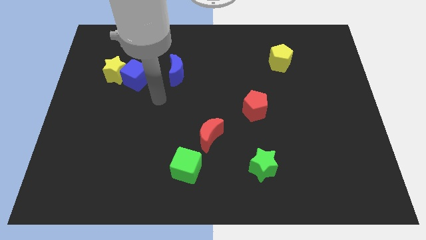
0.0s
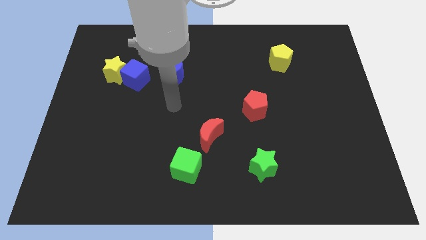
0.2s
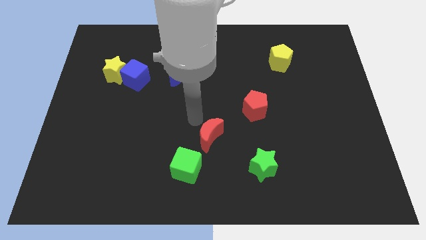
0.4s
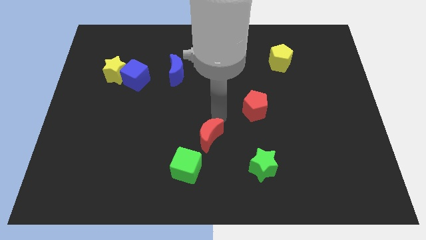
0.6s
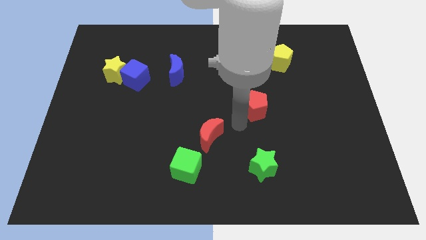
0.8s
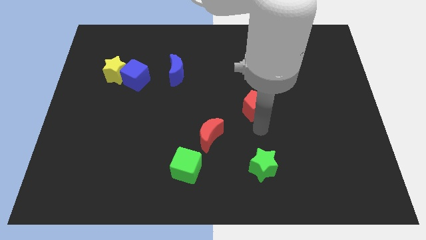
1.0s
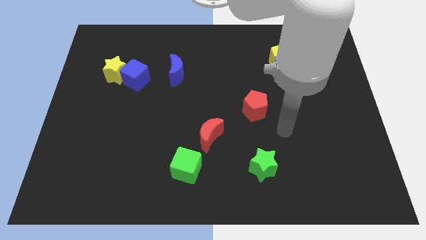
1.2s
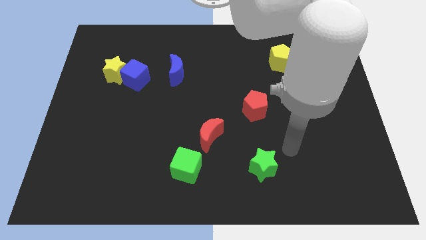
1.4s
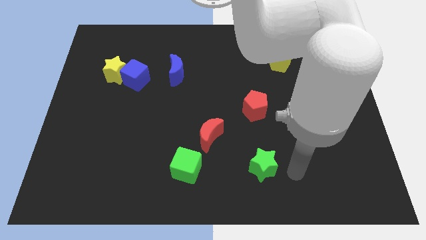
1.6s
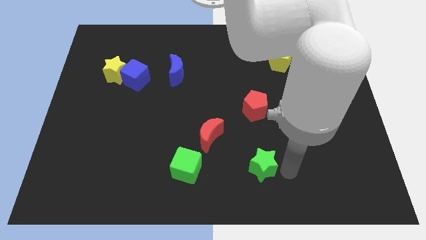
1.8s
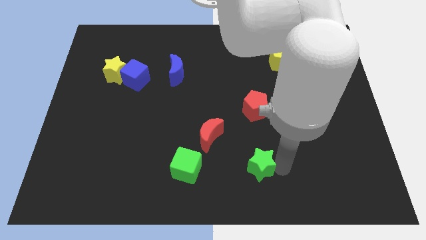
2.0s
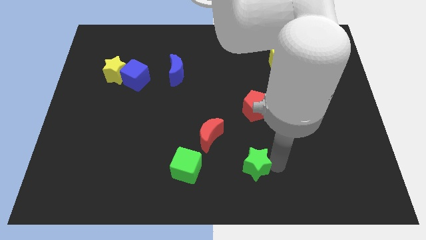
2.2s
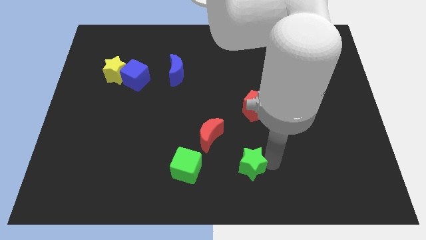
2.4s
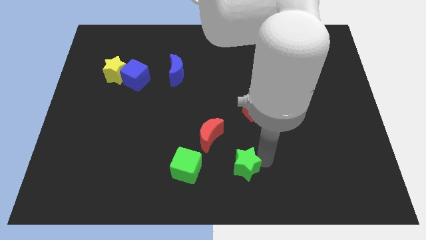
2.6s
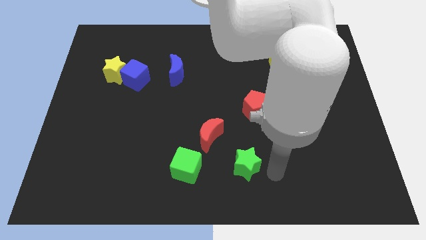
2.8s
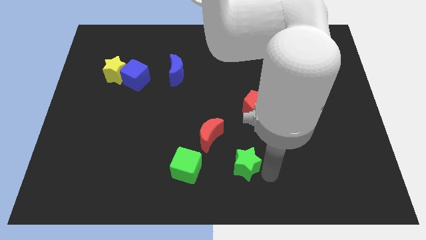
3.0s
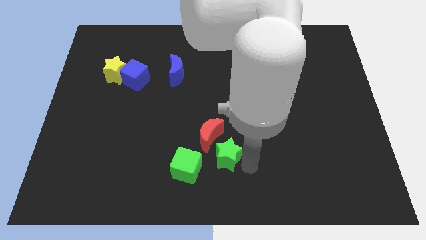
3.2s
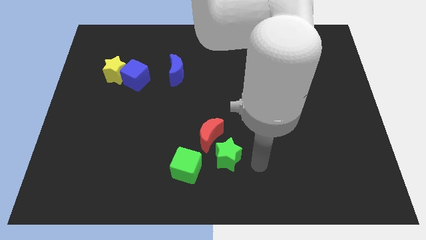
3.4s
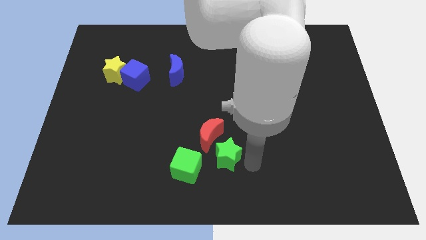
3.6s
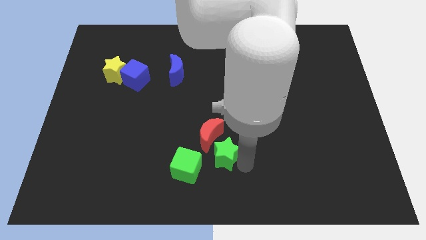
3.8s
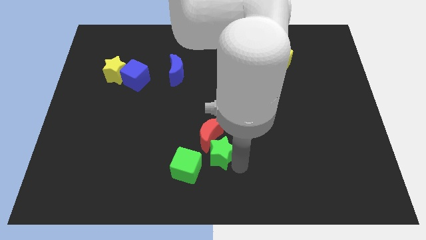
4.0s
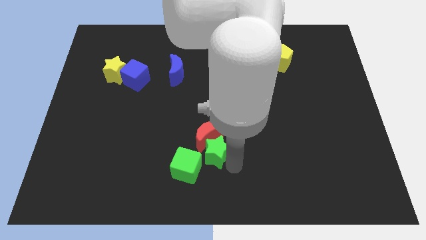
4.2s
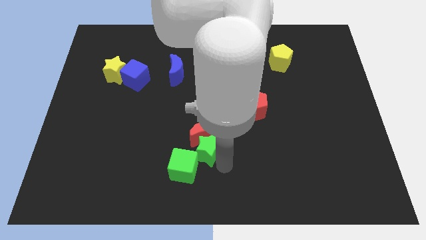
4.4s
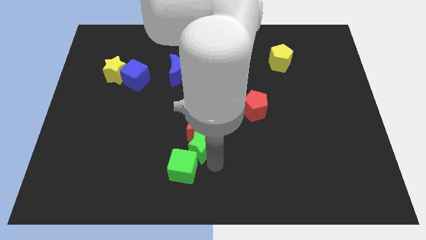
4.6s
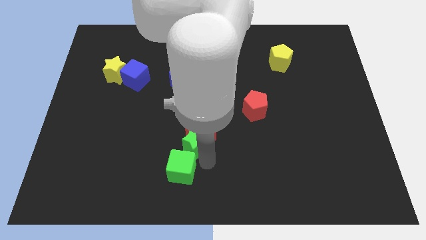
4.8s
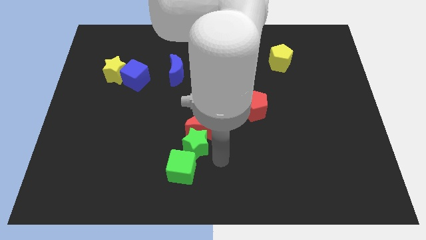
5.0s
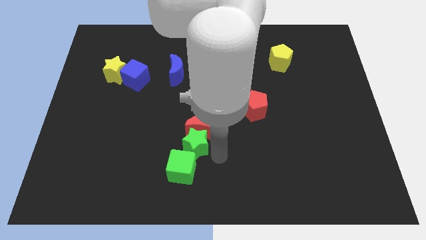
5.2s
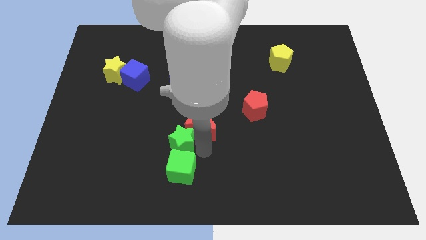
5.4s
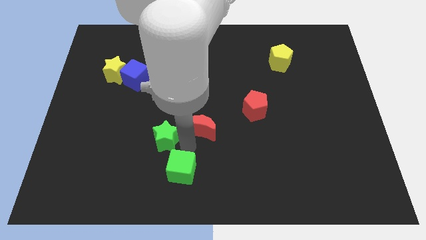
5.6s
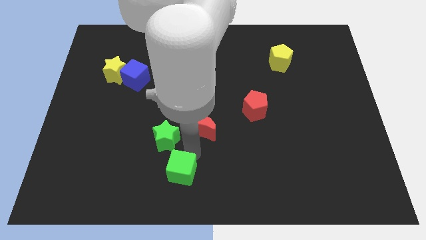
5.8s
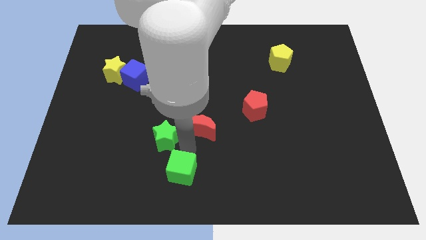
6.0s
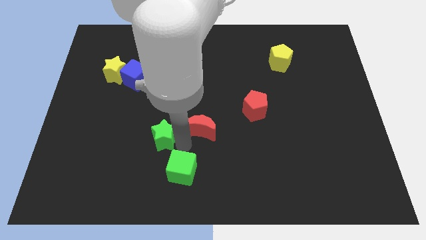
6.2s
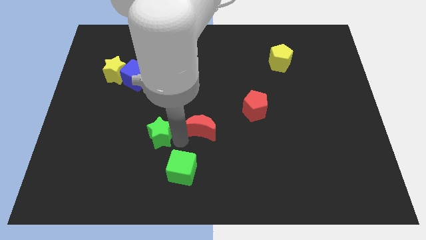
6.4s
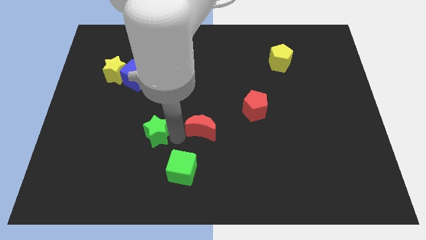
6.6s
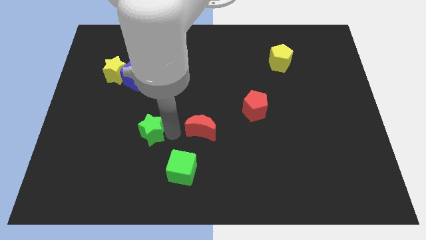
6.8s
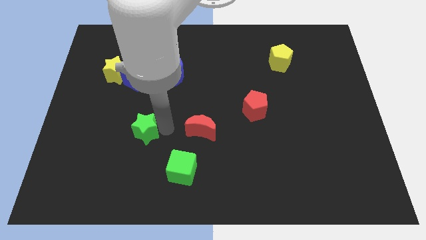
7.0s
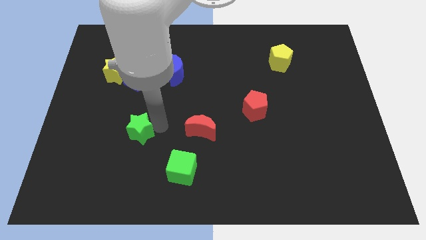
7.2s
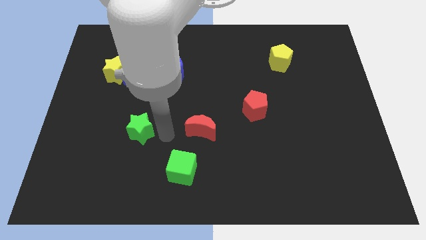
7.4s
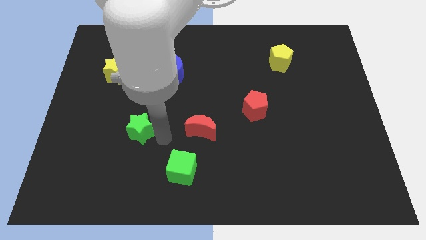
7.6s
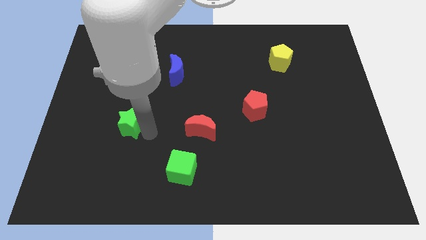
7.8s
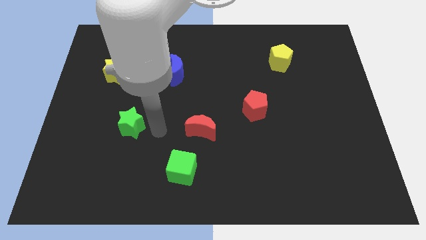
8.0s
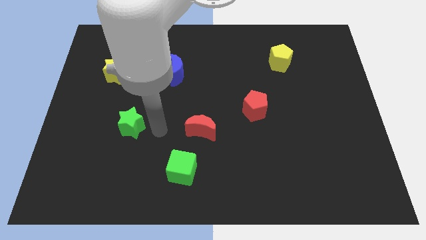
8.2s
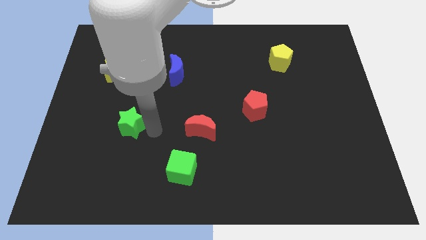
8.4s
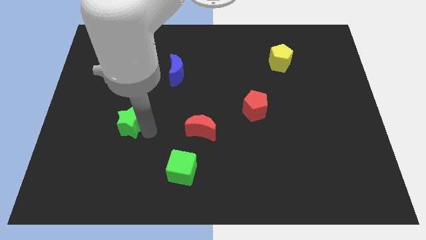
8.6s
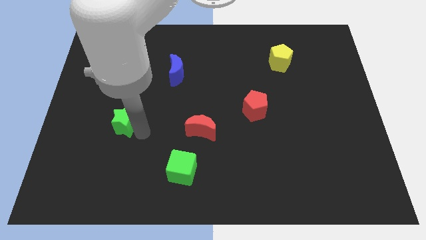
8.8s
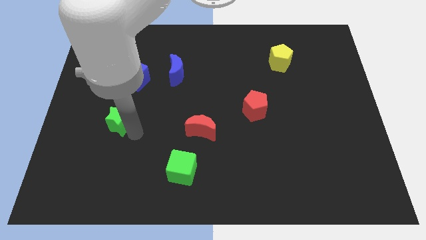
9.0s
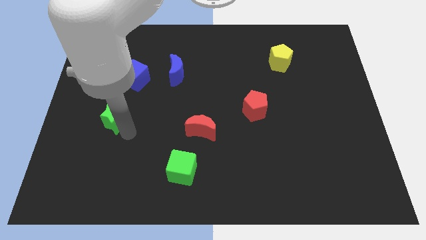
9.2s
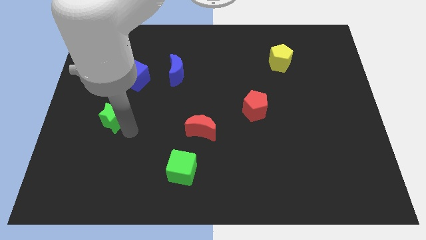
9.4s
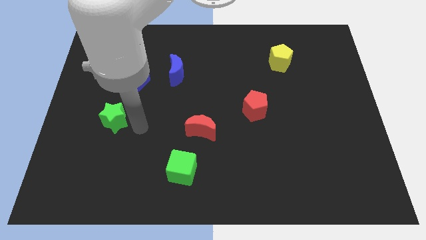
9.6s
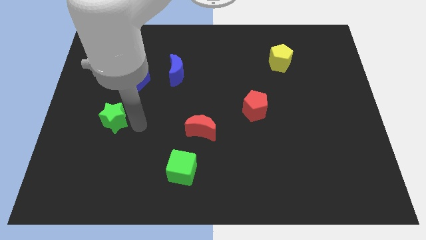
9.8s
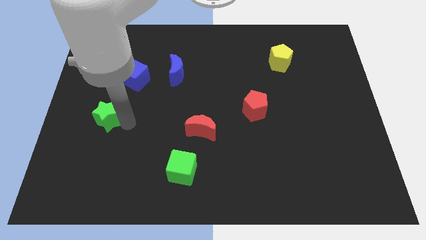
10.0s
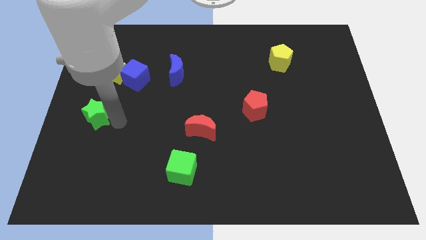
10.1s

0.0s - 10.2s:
push the green star to the left side of the board

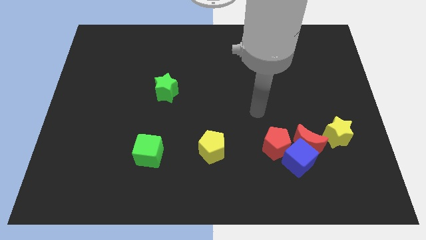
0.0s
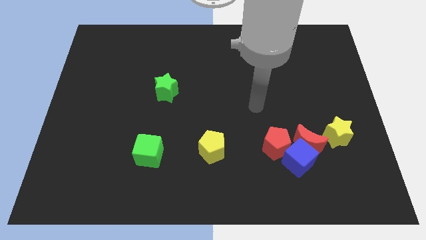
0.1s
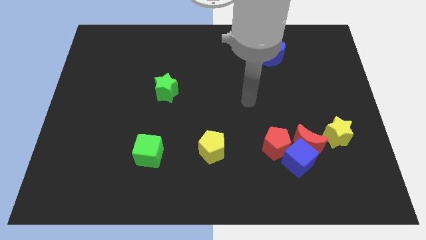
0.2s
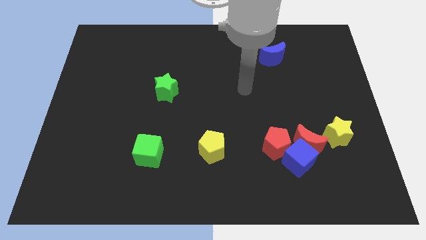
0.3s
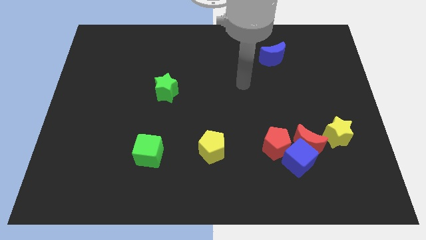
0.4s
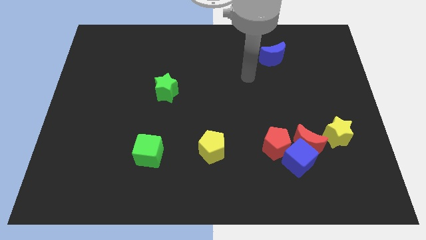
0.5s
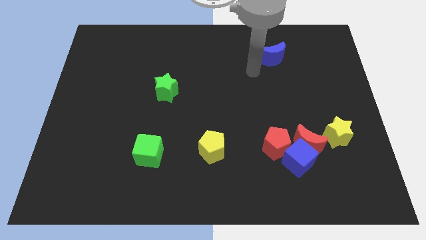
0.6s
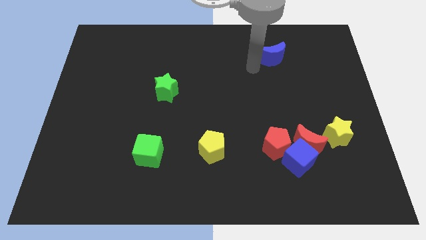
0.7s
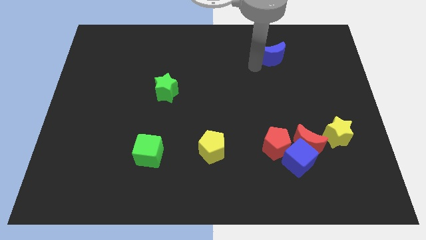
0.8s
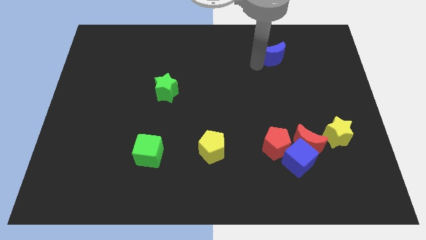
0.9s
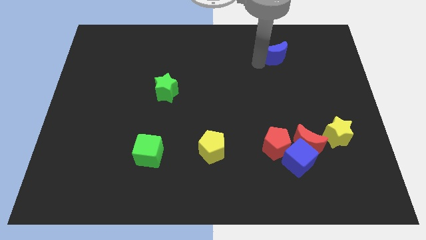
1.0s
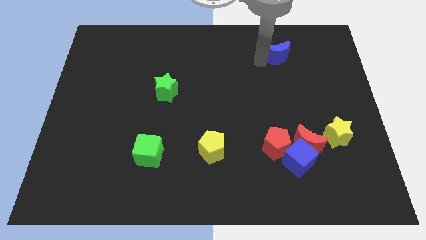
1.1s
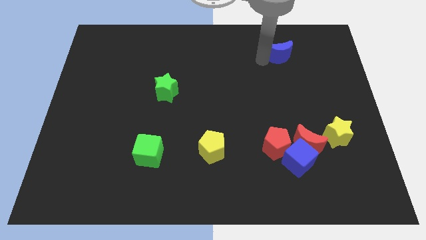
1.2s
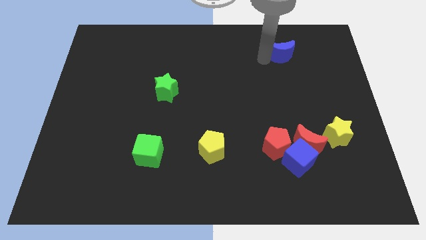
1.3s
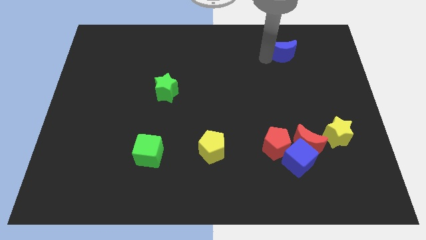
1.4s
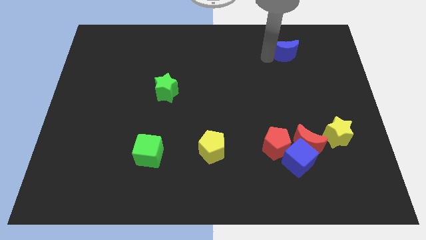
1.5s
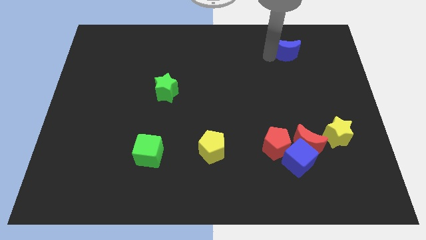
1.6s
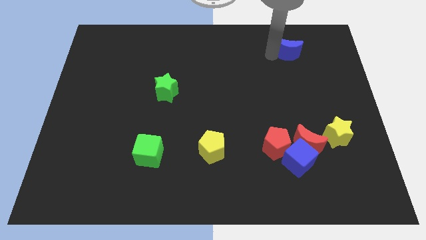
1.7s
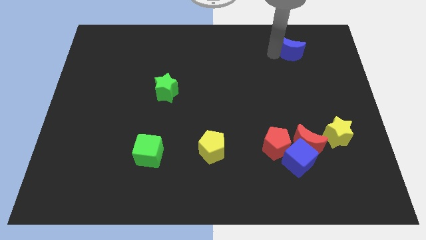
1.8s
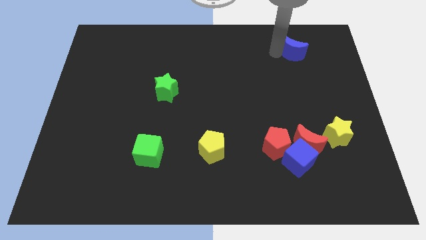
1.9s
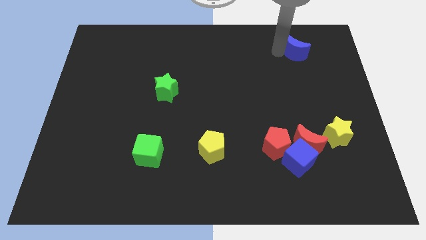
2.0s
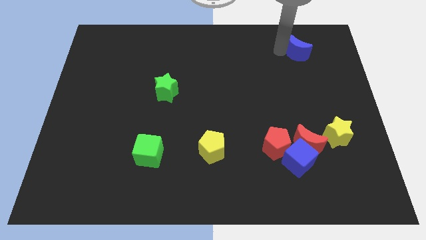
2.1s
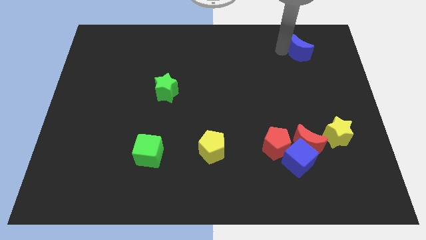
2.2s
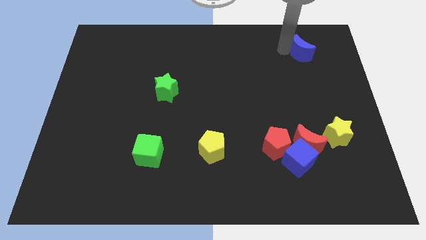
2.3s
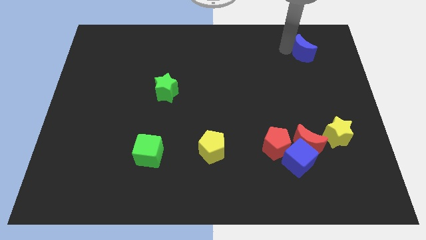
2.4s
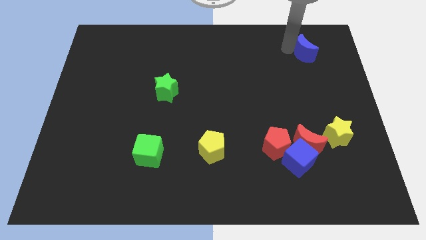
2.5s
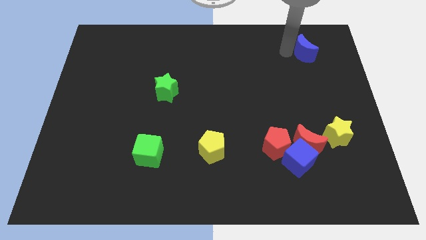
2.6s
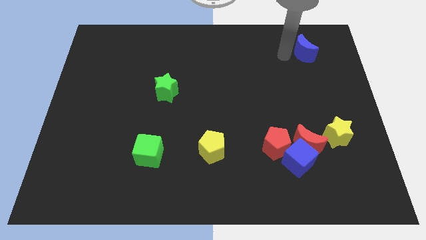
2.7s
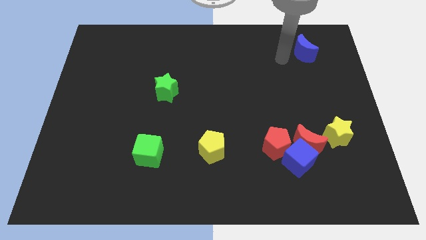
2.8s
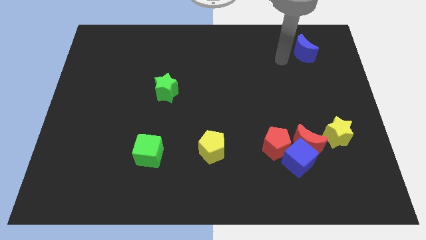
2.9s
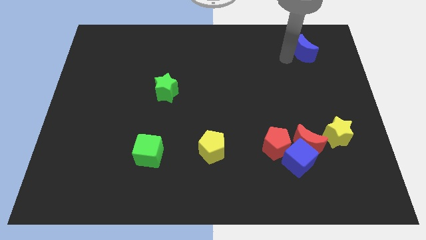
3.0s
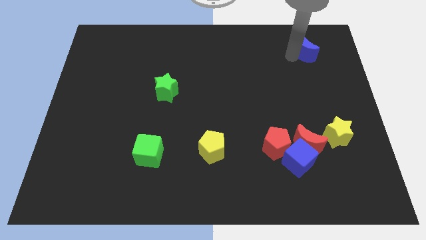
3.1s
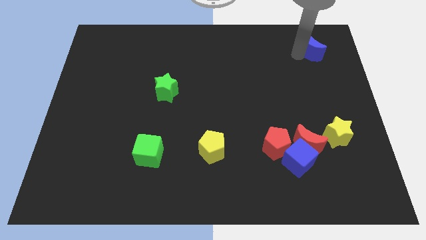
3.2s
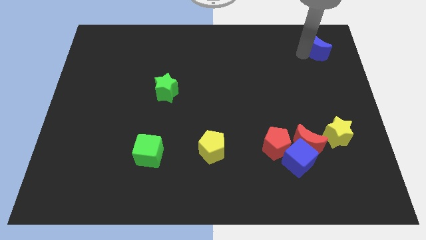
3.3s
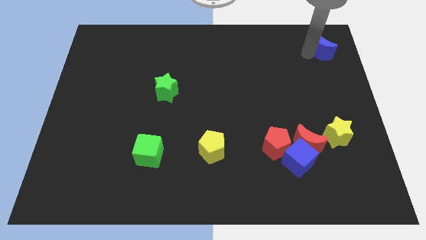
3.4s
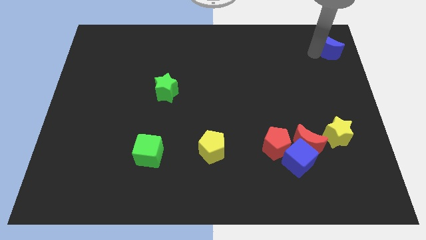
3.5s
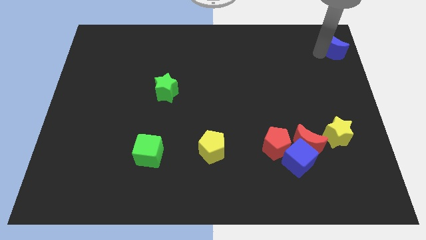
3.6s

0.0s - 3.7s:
push the blue moon to the top right
